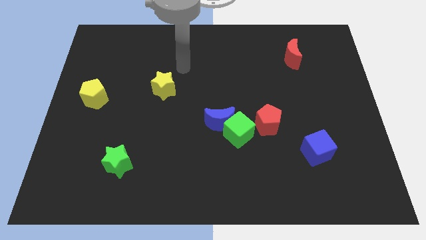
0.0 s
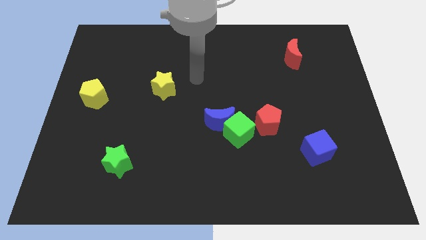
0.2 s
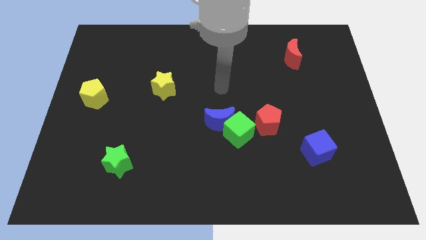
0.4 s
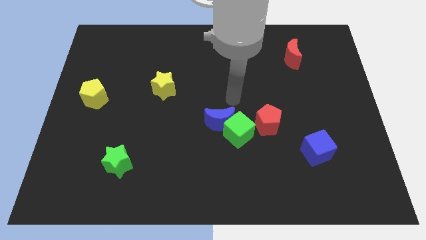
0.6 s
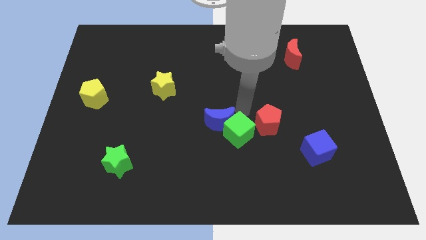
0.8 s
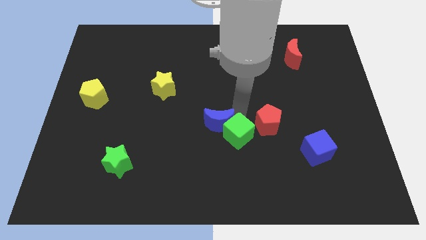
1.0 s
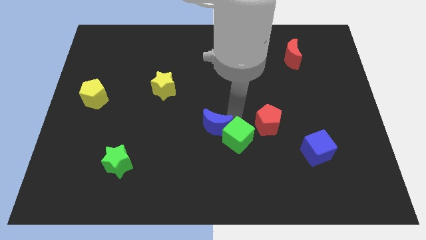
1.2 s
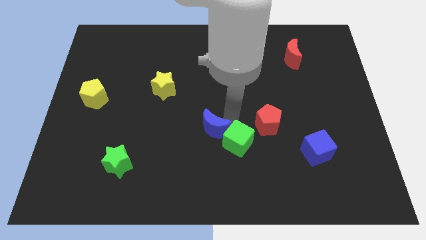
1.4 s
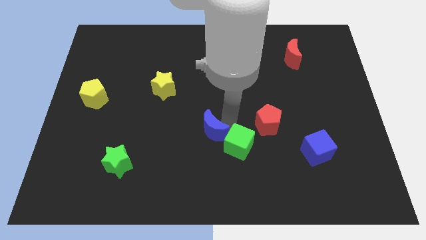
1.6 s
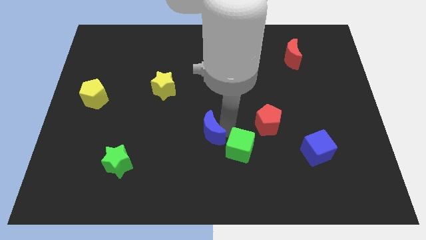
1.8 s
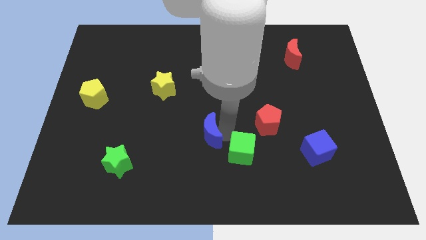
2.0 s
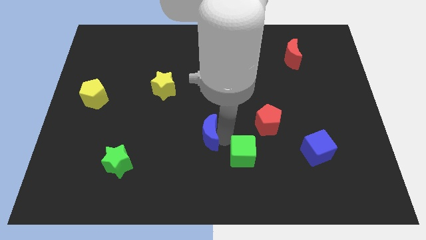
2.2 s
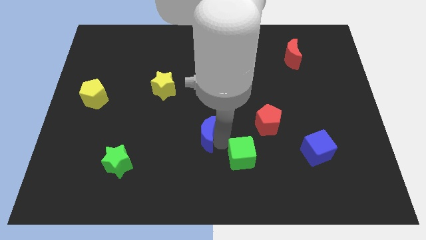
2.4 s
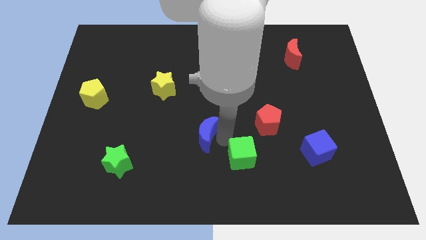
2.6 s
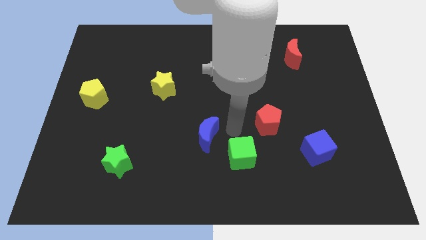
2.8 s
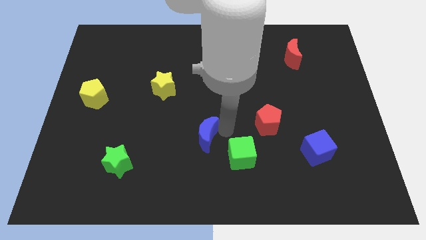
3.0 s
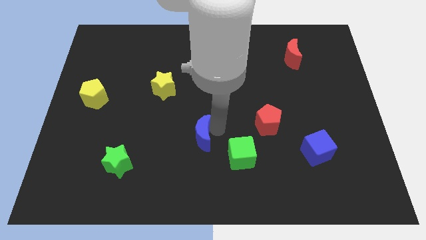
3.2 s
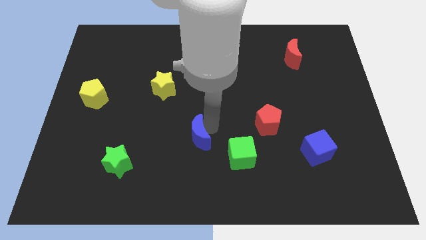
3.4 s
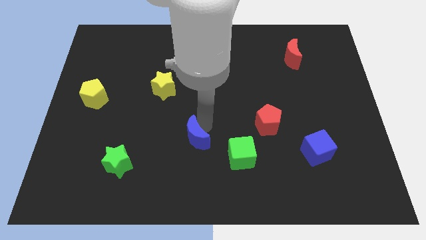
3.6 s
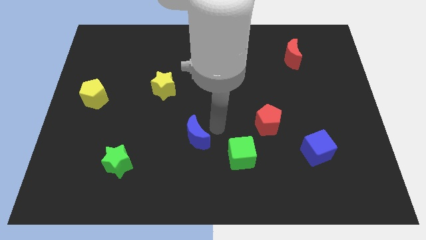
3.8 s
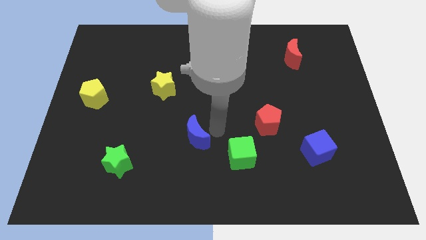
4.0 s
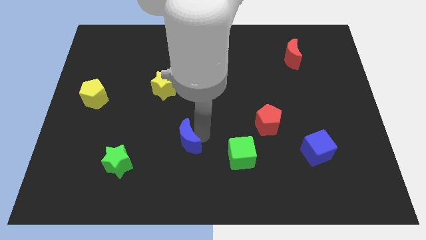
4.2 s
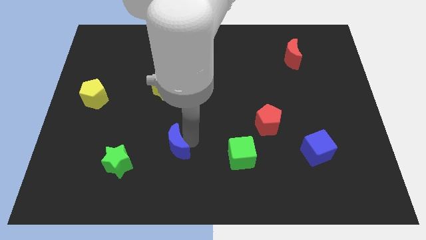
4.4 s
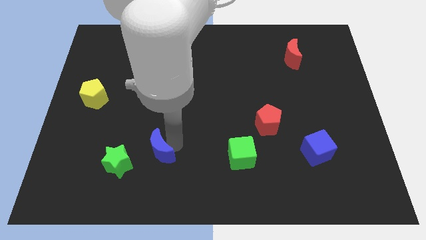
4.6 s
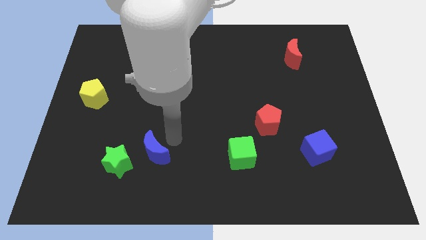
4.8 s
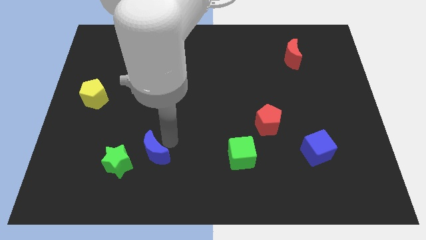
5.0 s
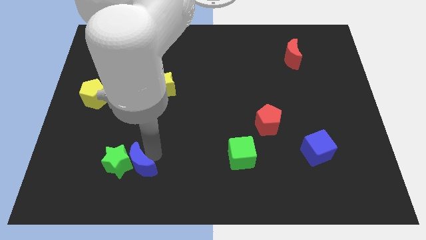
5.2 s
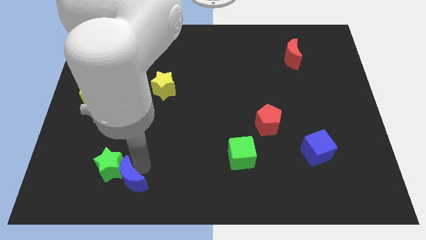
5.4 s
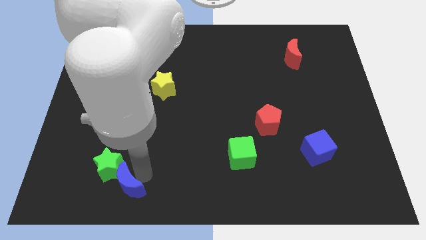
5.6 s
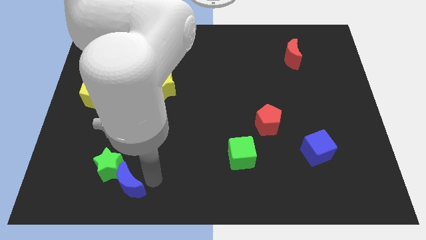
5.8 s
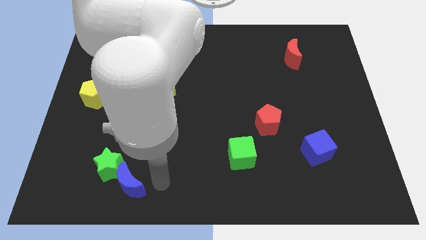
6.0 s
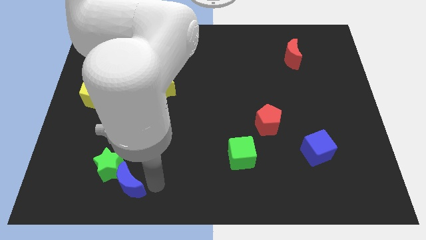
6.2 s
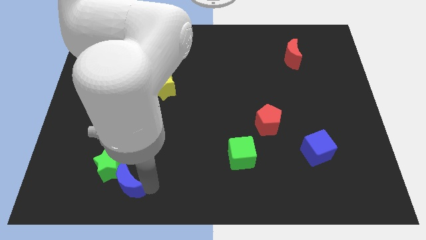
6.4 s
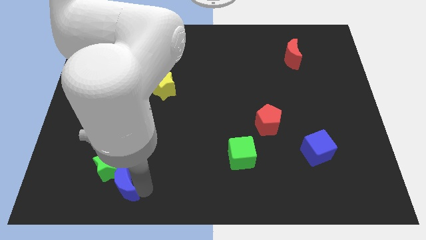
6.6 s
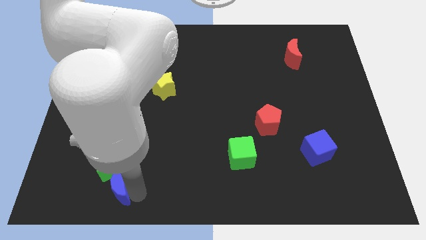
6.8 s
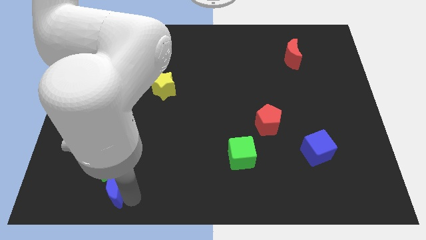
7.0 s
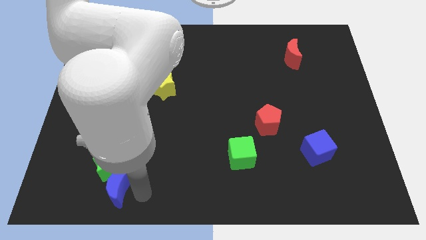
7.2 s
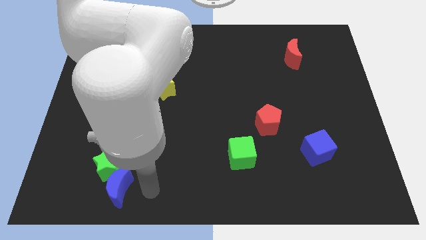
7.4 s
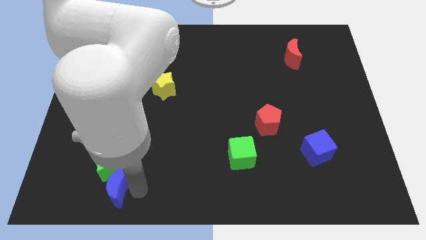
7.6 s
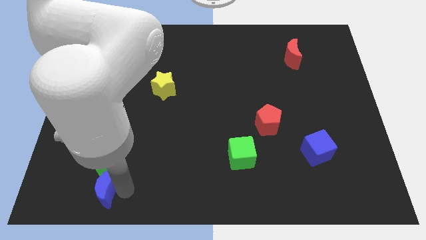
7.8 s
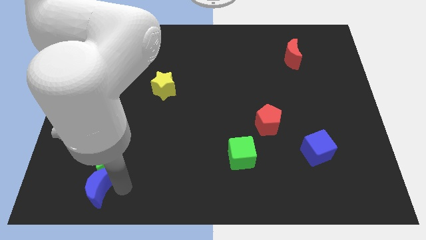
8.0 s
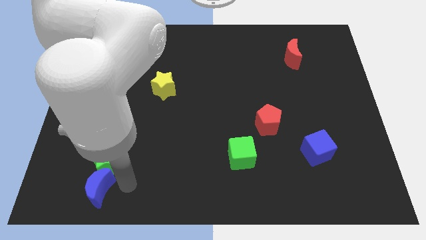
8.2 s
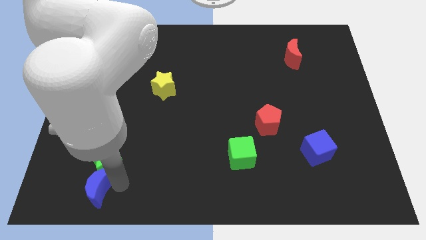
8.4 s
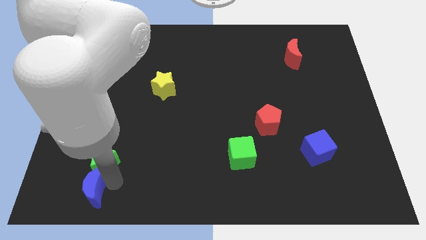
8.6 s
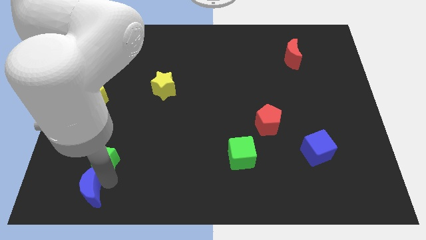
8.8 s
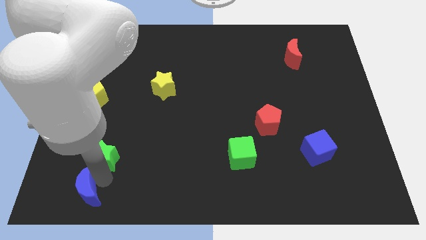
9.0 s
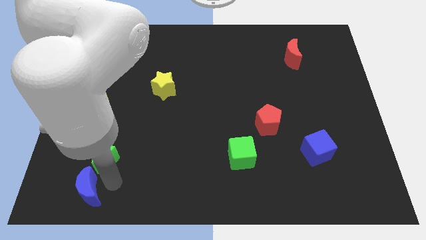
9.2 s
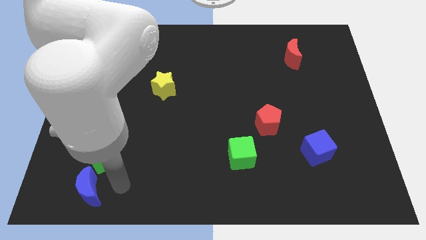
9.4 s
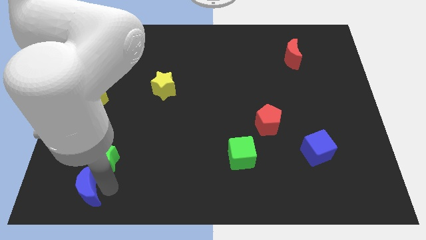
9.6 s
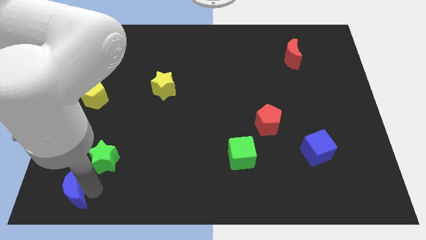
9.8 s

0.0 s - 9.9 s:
slide the blue moon to the bottom left corner

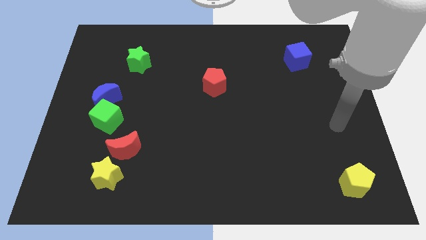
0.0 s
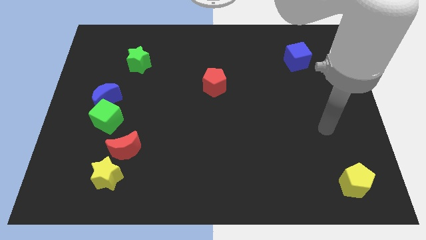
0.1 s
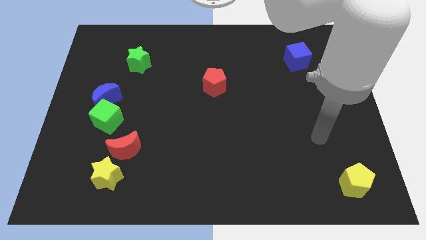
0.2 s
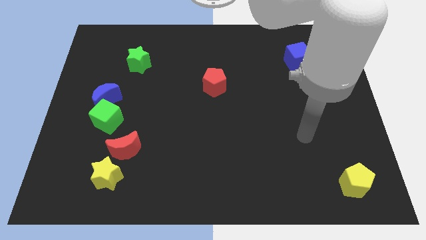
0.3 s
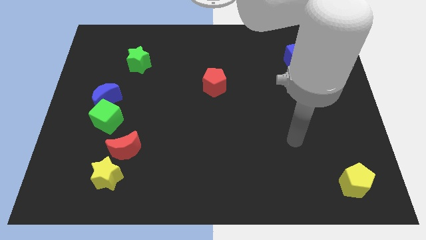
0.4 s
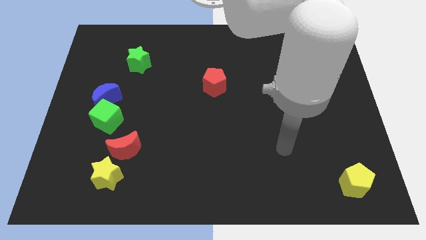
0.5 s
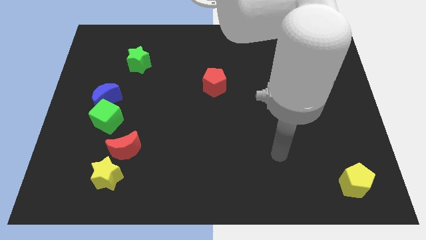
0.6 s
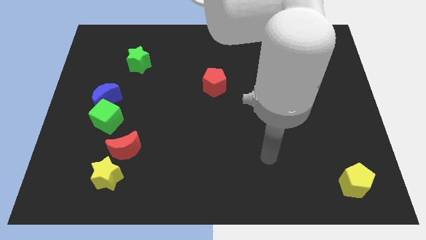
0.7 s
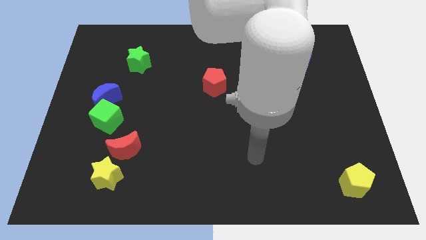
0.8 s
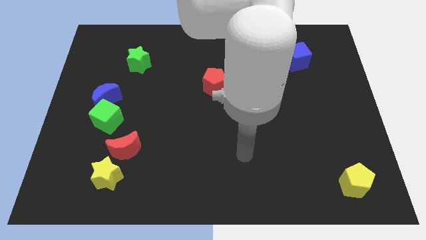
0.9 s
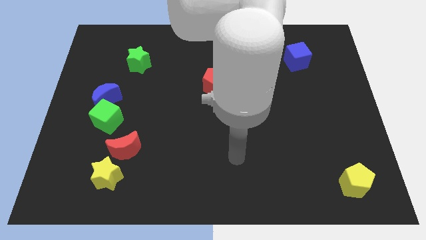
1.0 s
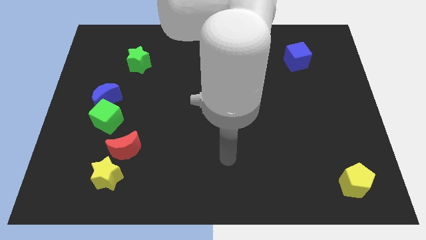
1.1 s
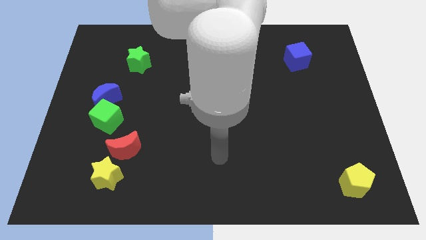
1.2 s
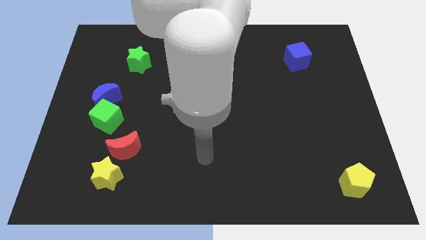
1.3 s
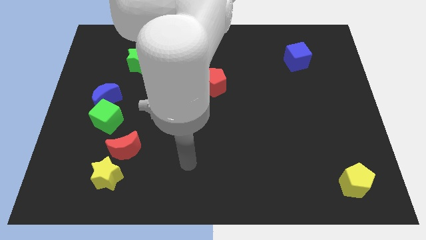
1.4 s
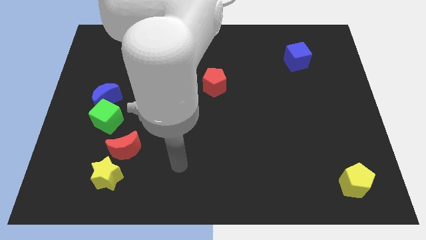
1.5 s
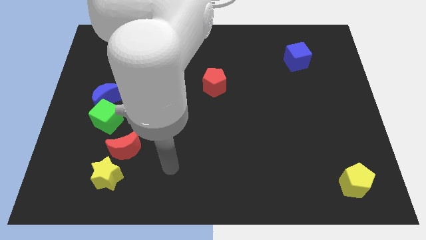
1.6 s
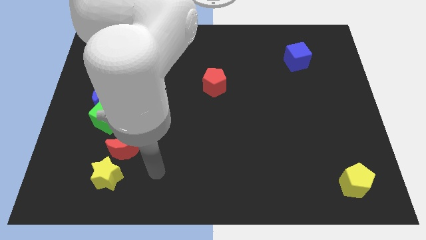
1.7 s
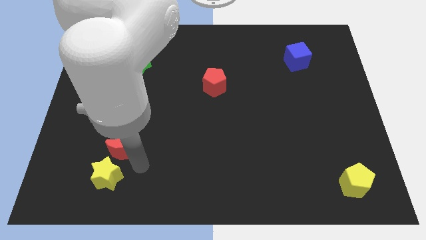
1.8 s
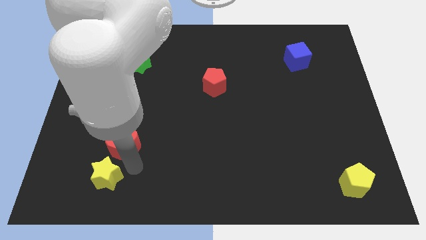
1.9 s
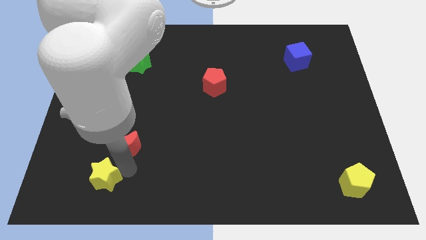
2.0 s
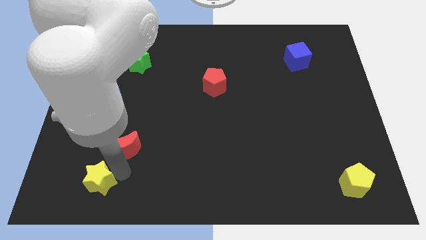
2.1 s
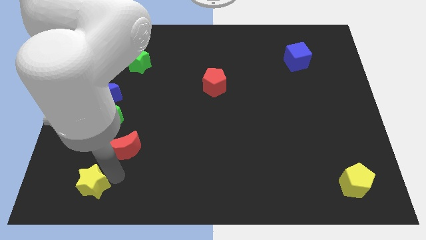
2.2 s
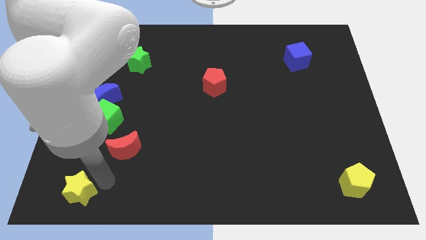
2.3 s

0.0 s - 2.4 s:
move the yellow star to the bottom left corner
